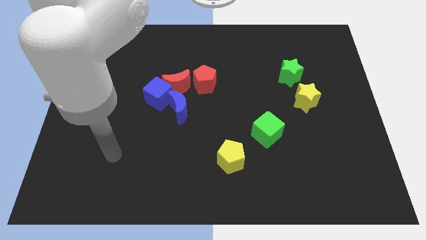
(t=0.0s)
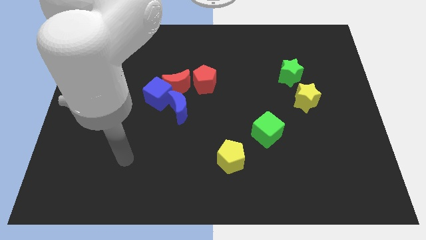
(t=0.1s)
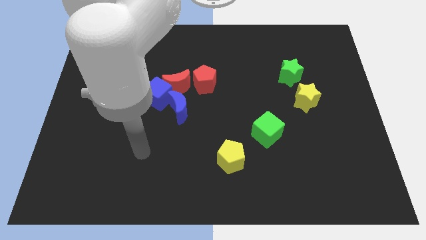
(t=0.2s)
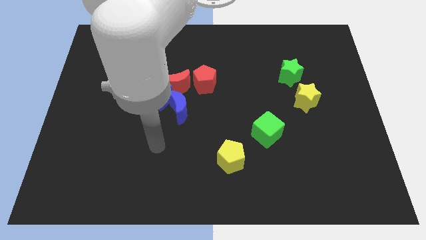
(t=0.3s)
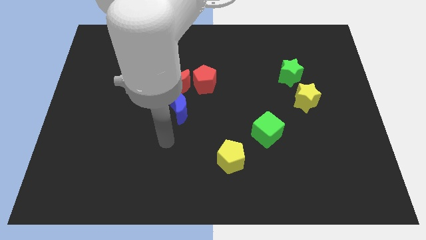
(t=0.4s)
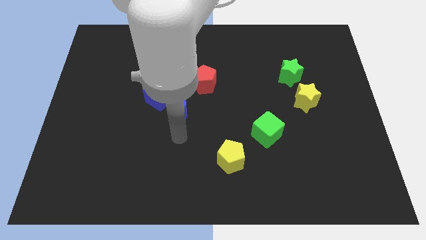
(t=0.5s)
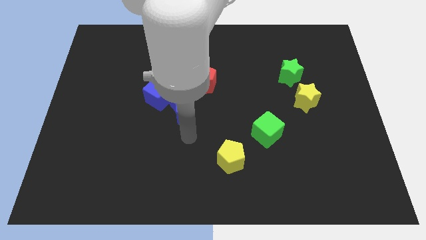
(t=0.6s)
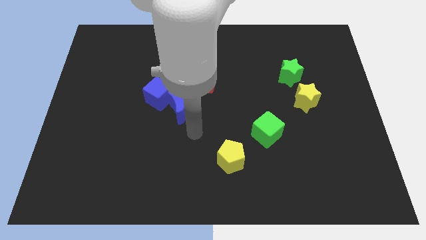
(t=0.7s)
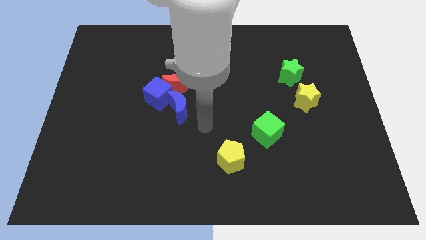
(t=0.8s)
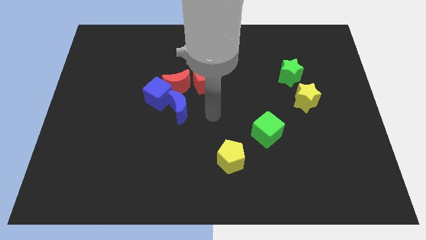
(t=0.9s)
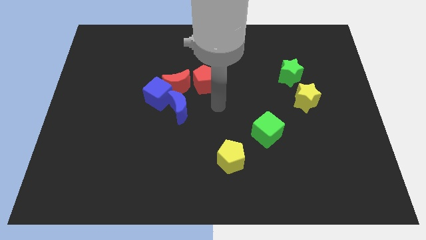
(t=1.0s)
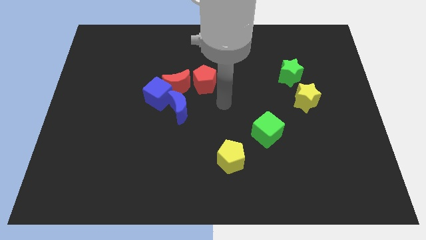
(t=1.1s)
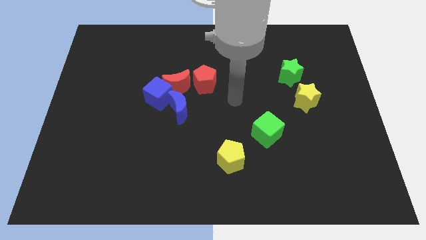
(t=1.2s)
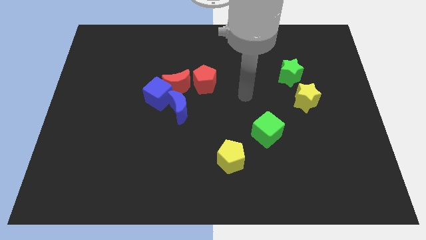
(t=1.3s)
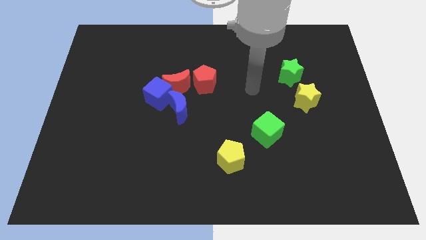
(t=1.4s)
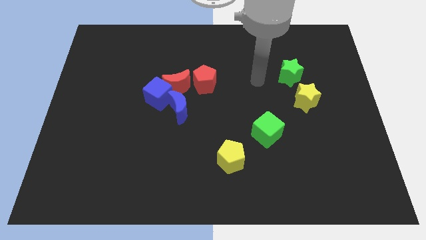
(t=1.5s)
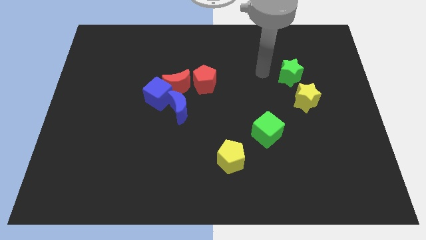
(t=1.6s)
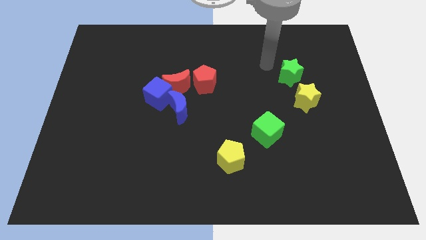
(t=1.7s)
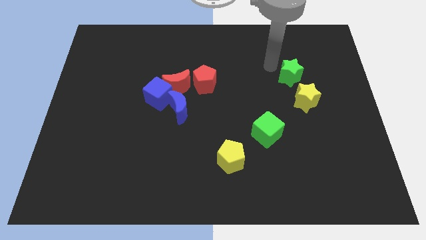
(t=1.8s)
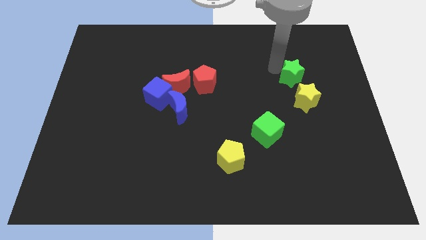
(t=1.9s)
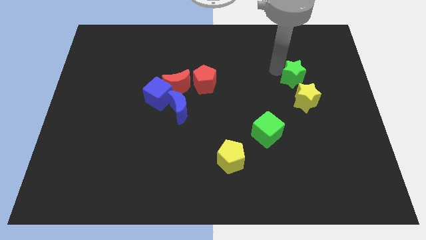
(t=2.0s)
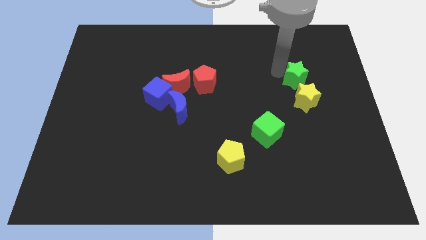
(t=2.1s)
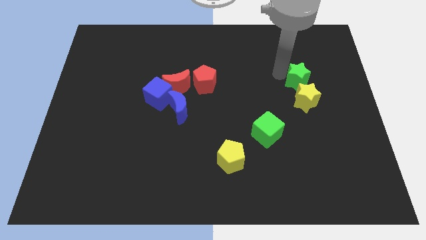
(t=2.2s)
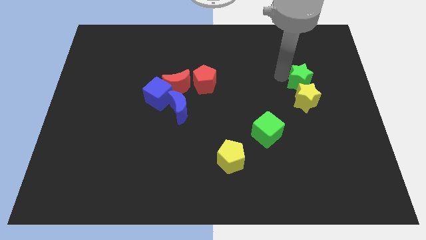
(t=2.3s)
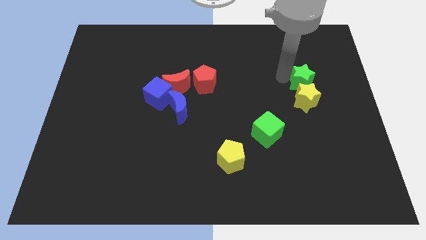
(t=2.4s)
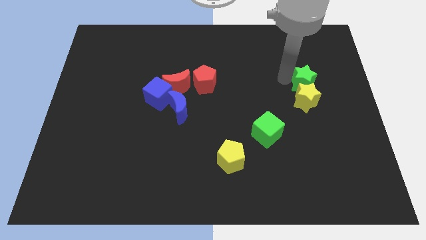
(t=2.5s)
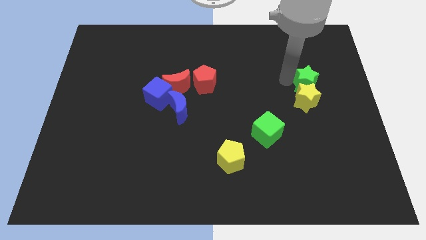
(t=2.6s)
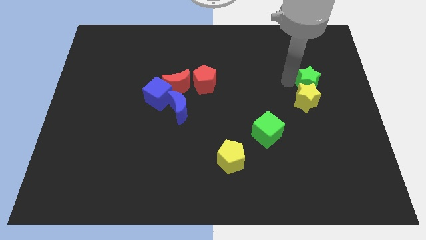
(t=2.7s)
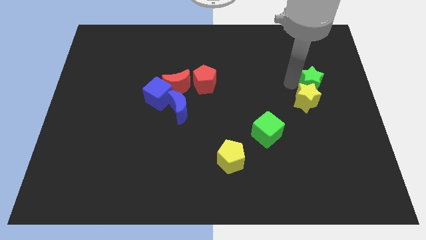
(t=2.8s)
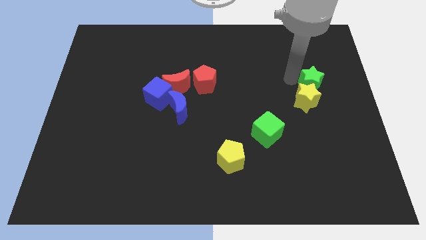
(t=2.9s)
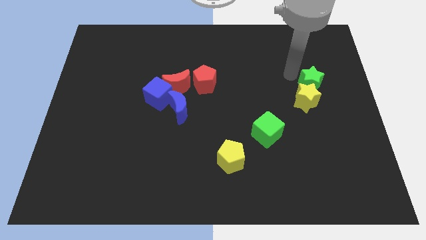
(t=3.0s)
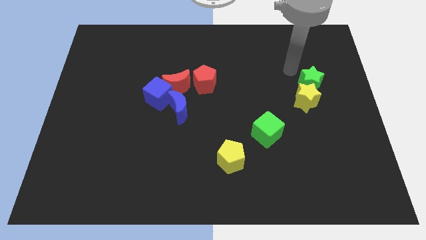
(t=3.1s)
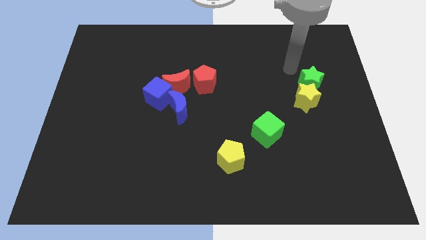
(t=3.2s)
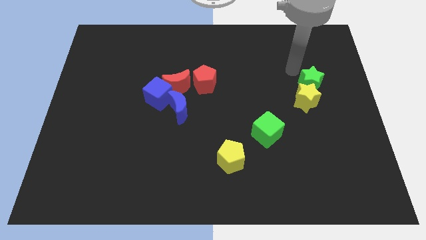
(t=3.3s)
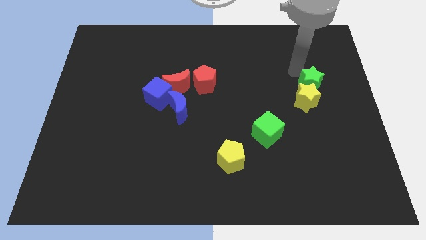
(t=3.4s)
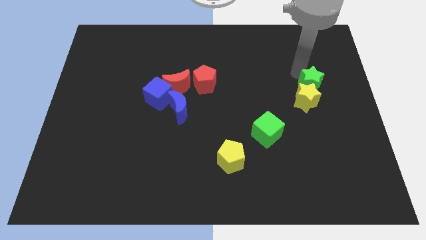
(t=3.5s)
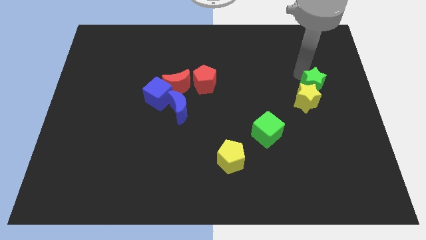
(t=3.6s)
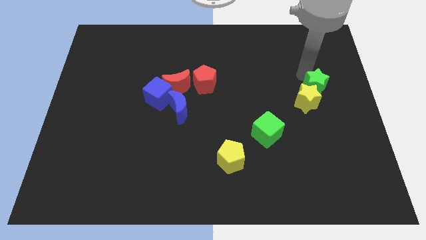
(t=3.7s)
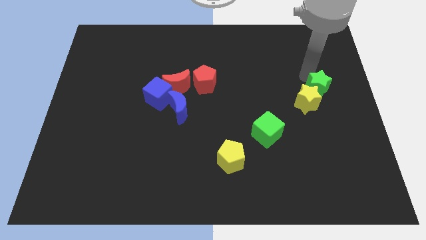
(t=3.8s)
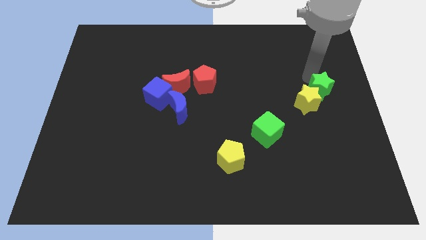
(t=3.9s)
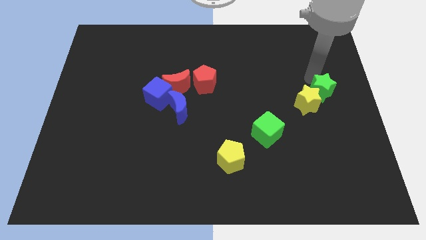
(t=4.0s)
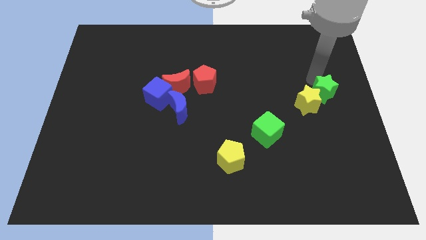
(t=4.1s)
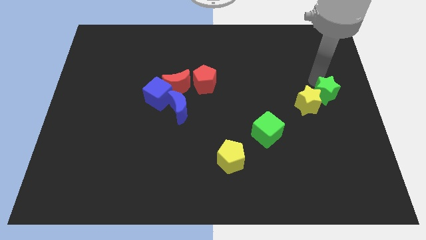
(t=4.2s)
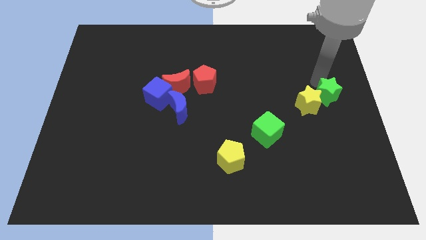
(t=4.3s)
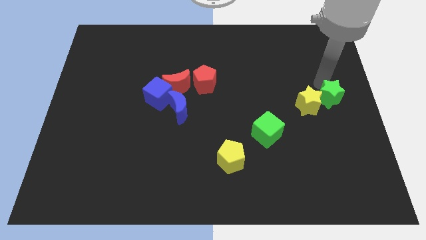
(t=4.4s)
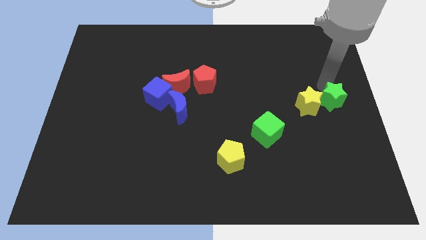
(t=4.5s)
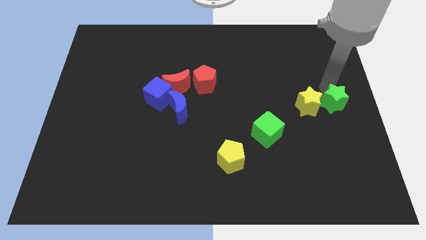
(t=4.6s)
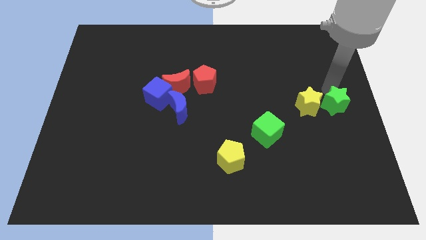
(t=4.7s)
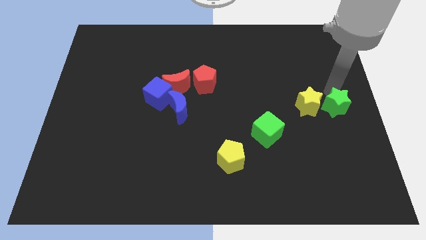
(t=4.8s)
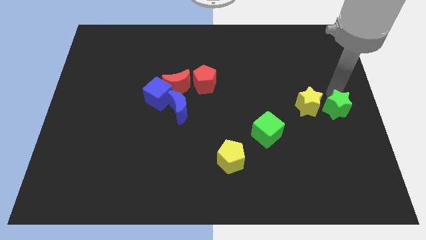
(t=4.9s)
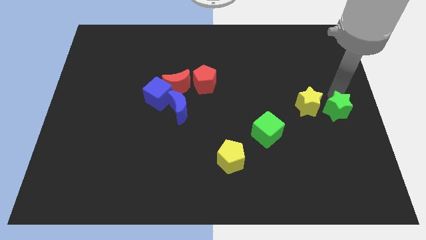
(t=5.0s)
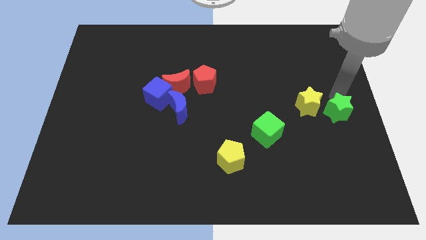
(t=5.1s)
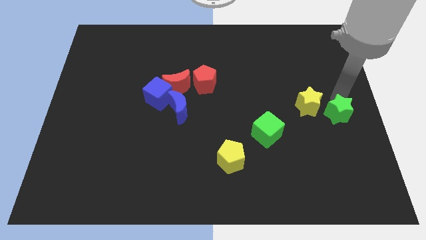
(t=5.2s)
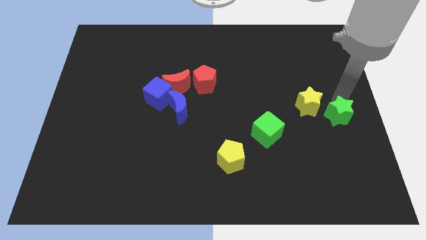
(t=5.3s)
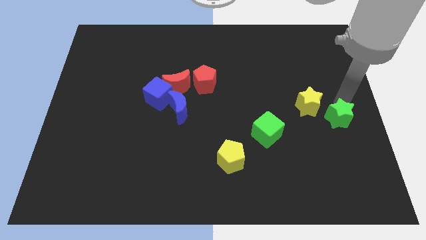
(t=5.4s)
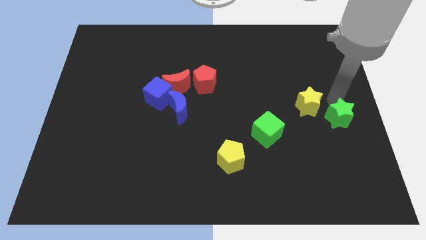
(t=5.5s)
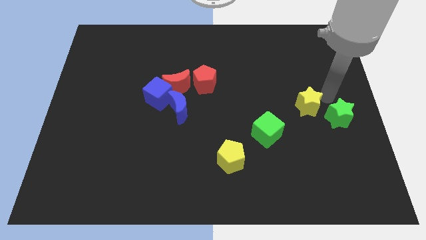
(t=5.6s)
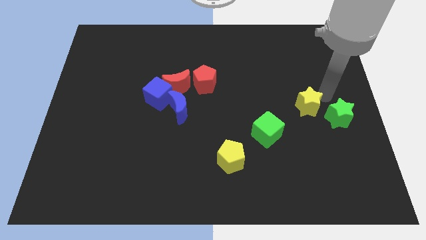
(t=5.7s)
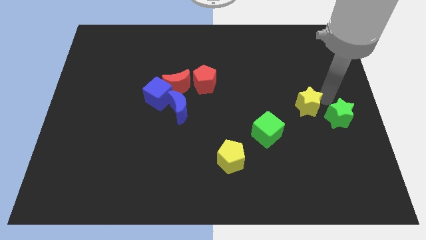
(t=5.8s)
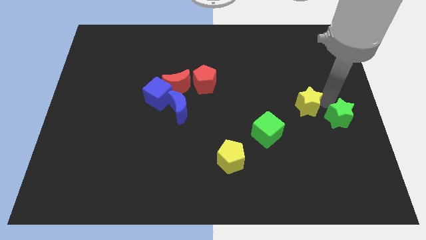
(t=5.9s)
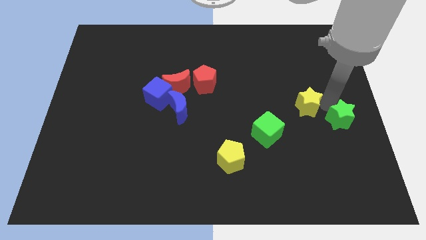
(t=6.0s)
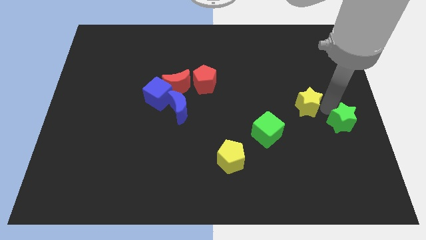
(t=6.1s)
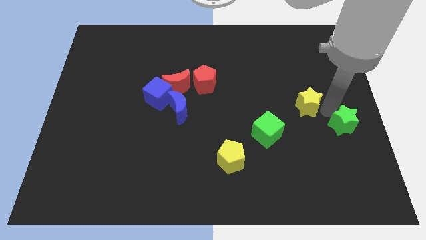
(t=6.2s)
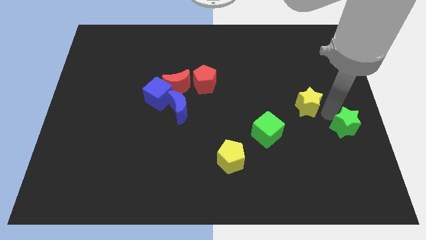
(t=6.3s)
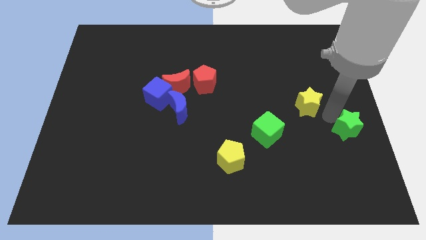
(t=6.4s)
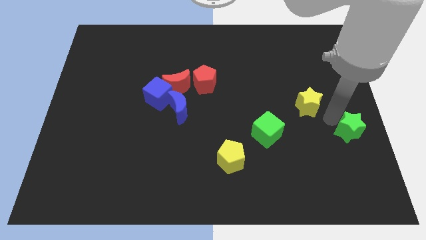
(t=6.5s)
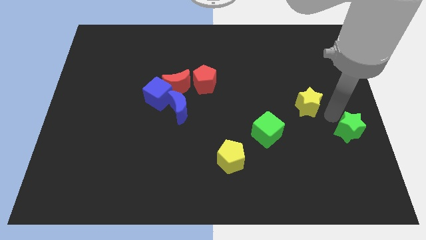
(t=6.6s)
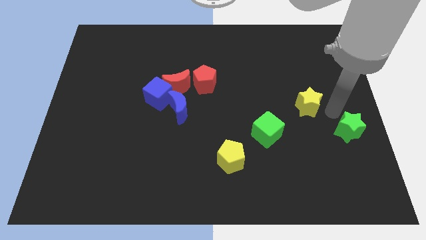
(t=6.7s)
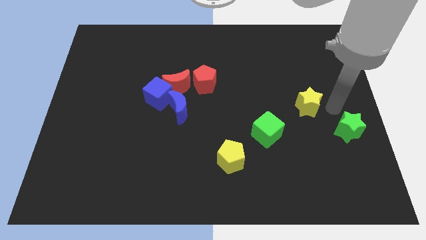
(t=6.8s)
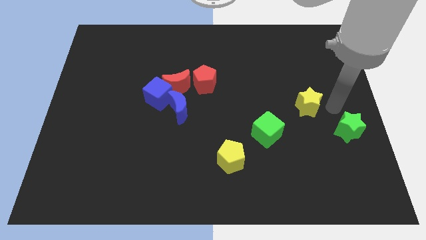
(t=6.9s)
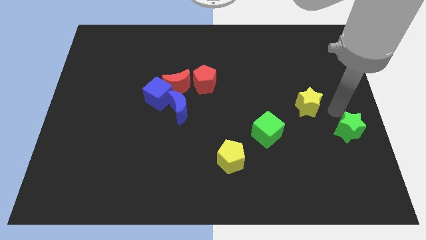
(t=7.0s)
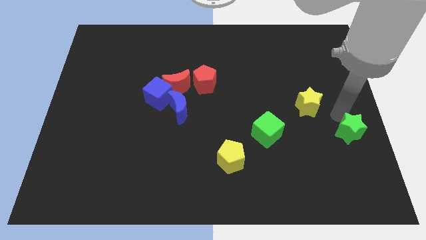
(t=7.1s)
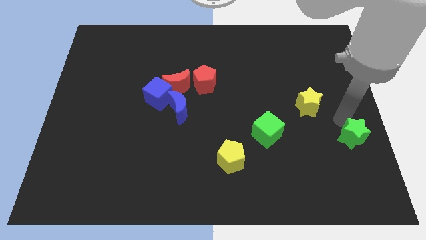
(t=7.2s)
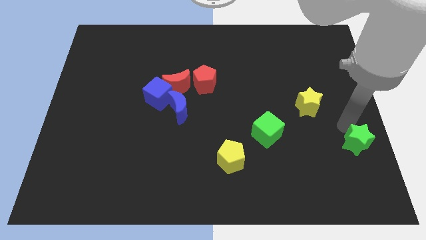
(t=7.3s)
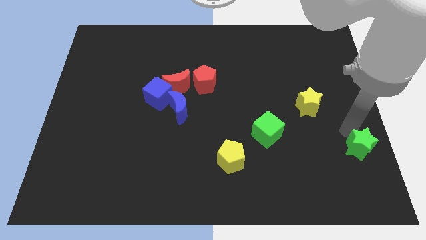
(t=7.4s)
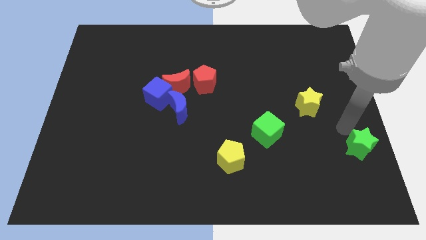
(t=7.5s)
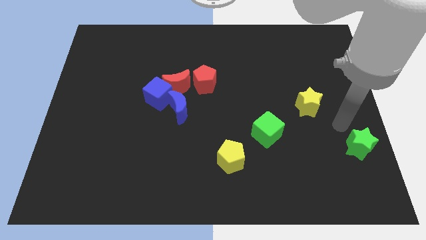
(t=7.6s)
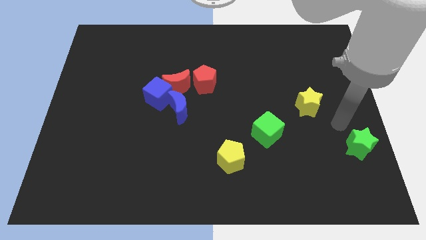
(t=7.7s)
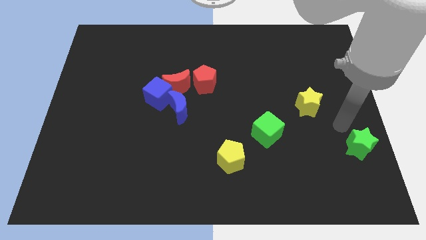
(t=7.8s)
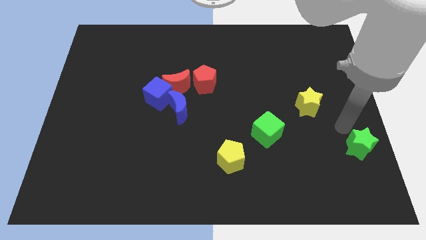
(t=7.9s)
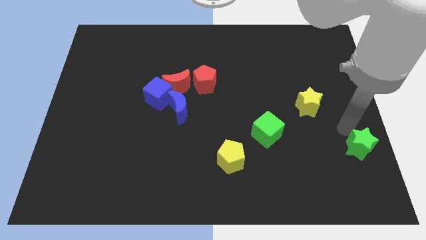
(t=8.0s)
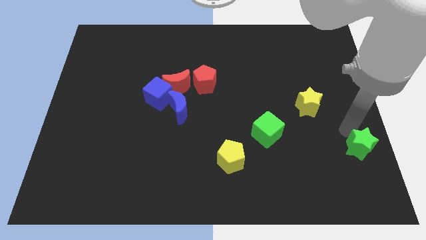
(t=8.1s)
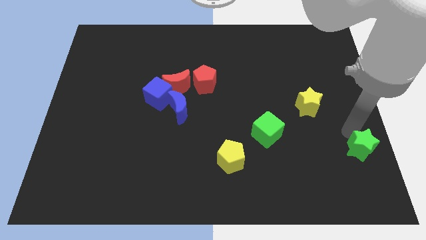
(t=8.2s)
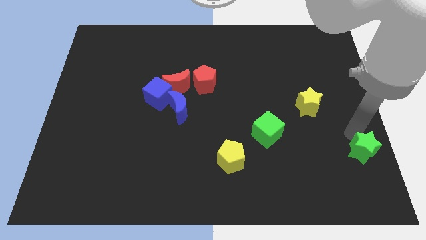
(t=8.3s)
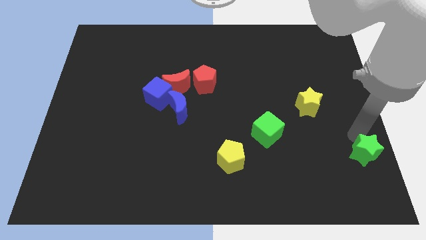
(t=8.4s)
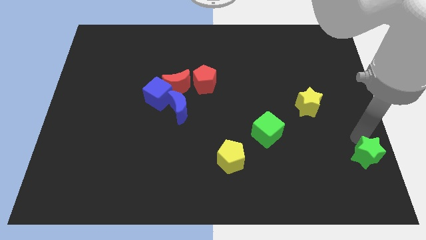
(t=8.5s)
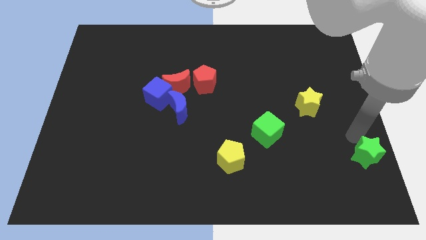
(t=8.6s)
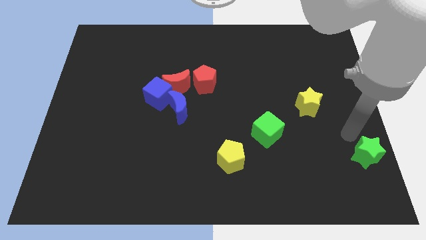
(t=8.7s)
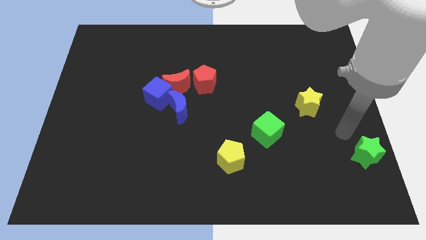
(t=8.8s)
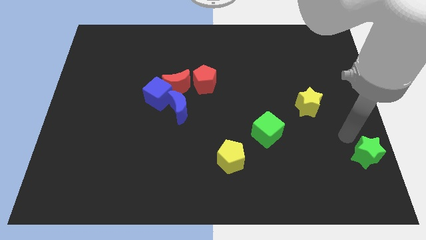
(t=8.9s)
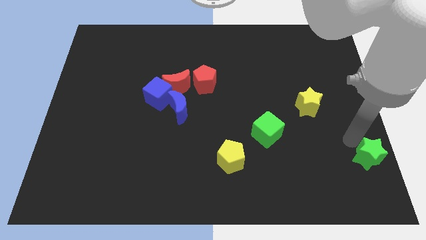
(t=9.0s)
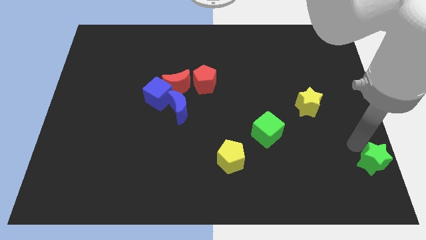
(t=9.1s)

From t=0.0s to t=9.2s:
slide the green star to the bottom right corner
